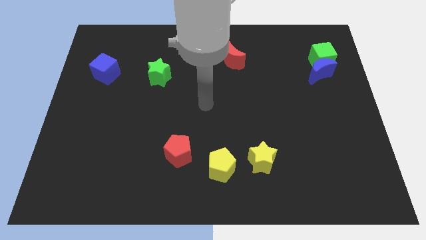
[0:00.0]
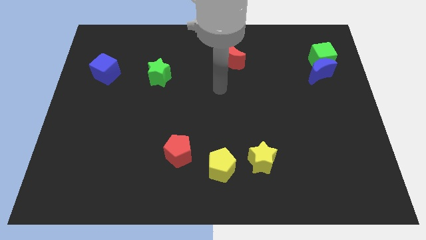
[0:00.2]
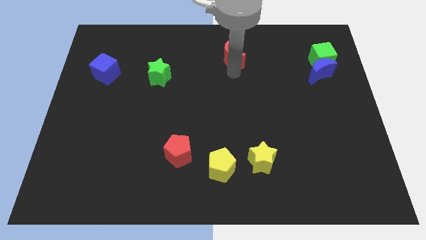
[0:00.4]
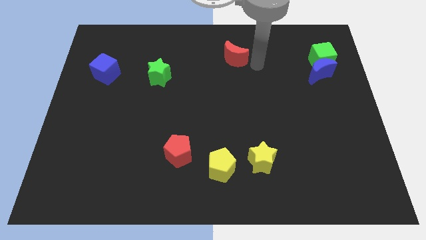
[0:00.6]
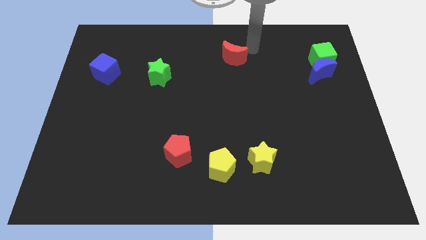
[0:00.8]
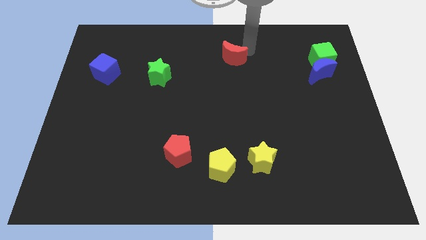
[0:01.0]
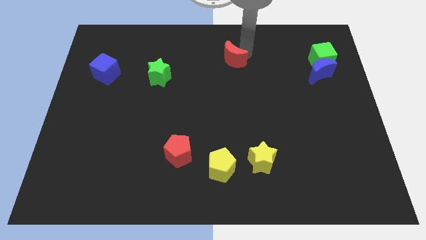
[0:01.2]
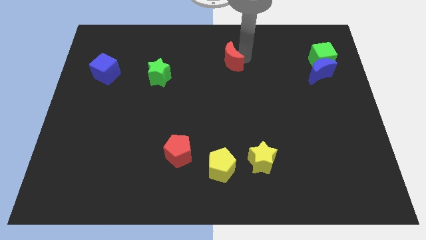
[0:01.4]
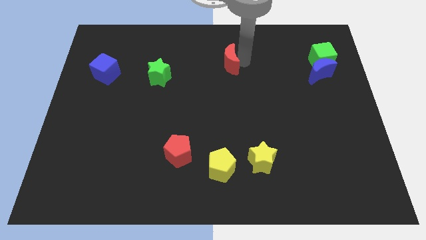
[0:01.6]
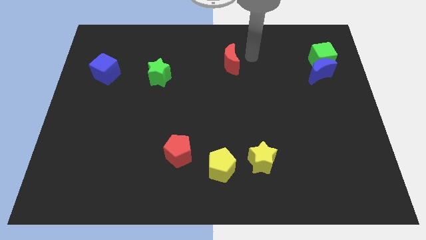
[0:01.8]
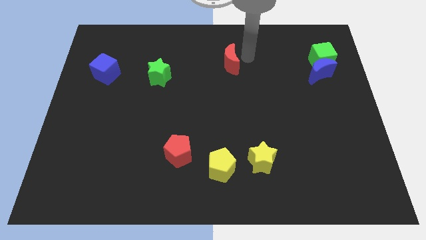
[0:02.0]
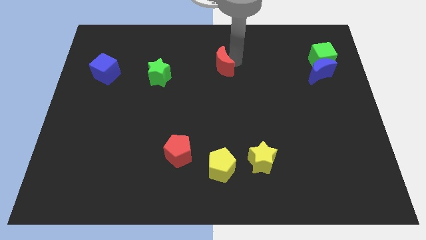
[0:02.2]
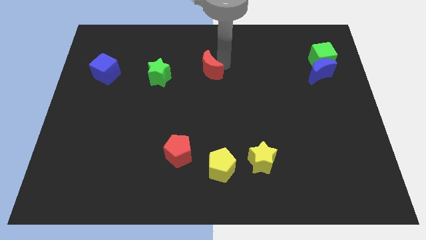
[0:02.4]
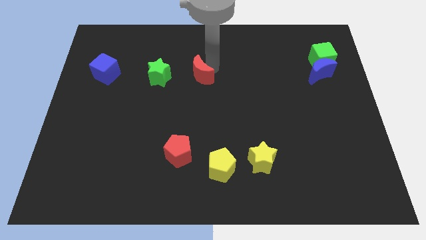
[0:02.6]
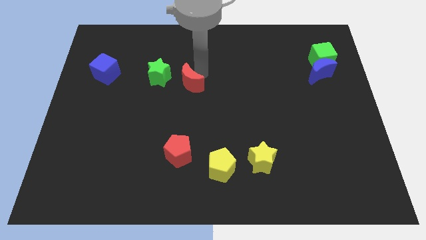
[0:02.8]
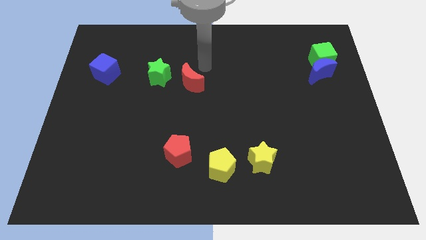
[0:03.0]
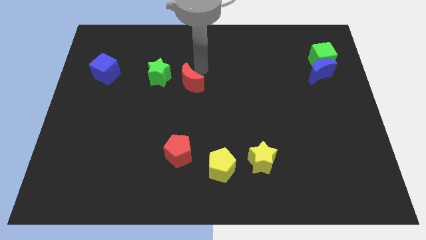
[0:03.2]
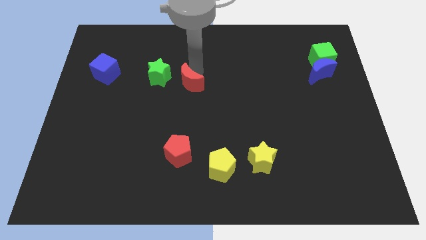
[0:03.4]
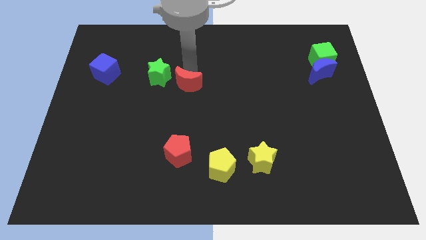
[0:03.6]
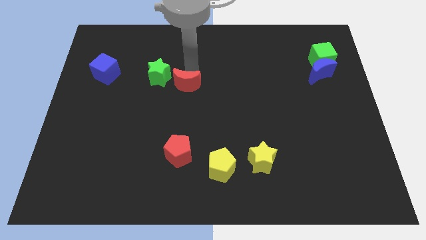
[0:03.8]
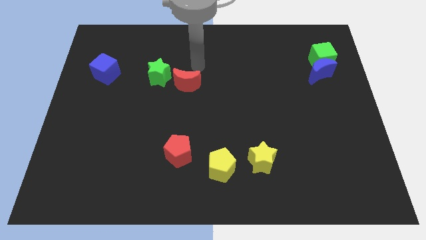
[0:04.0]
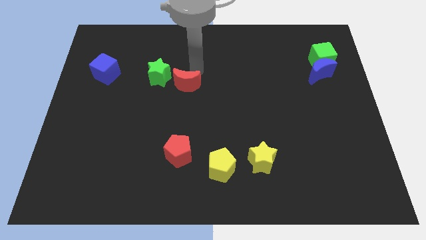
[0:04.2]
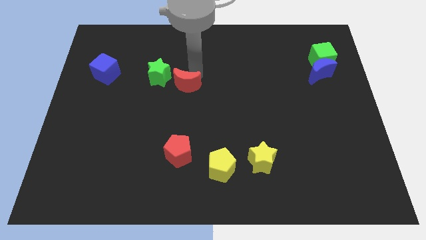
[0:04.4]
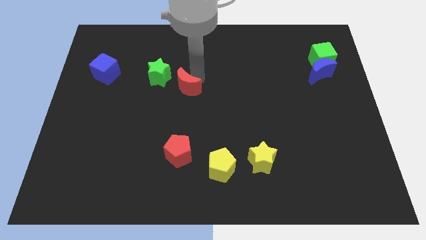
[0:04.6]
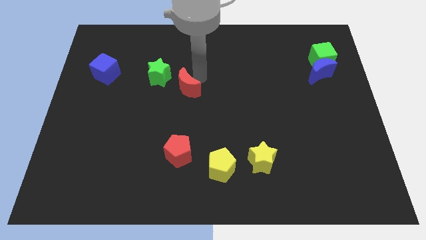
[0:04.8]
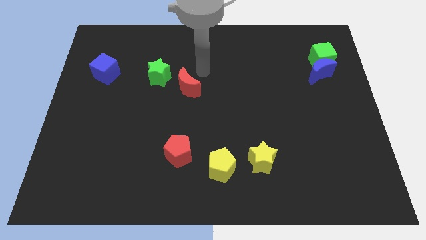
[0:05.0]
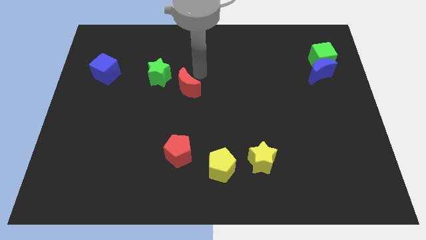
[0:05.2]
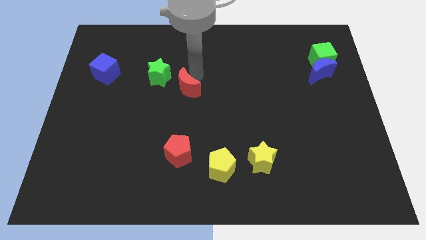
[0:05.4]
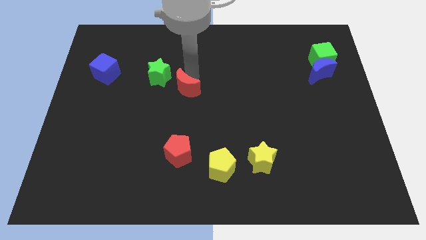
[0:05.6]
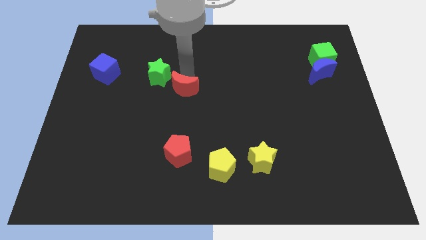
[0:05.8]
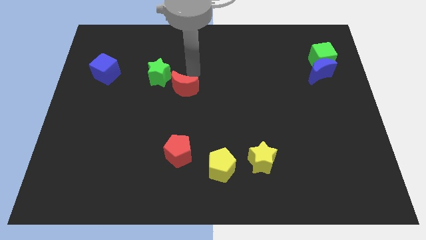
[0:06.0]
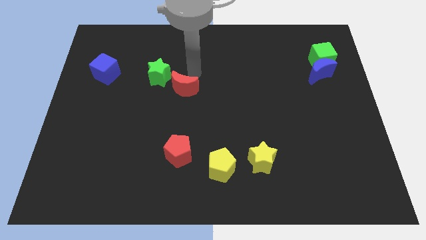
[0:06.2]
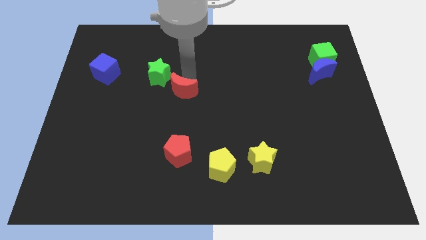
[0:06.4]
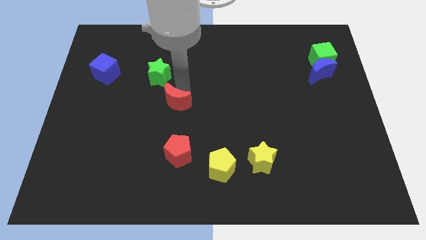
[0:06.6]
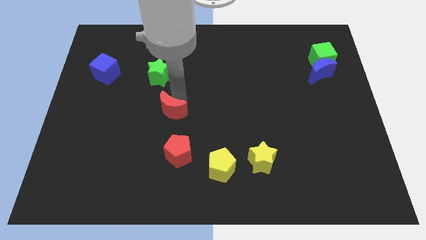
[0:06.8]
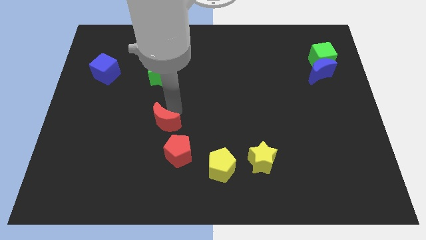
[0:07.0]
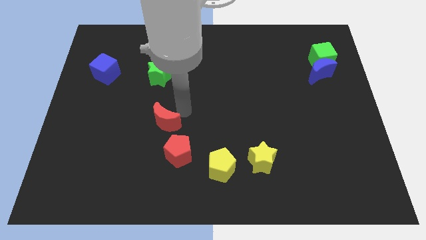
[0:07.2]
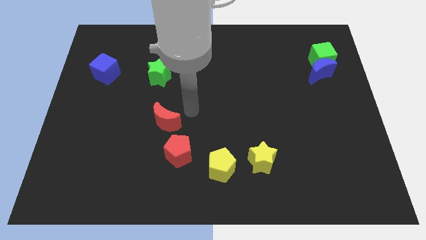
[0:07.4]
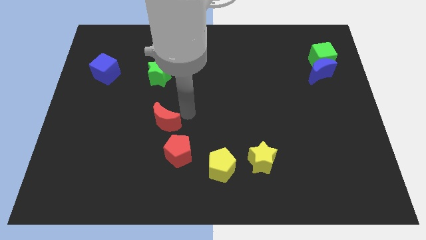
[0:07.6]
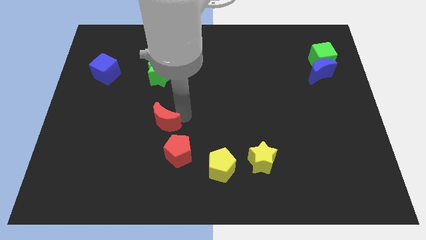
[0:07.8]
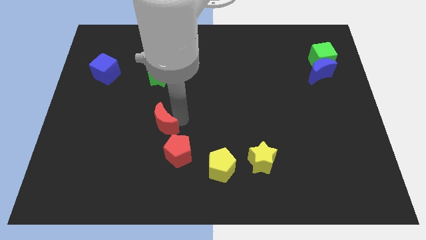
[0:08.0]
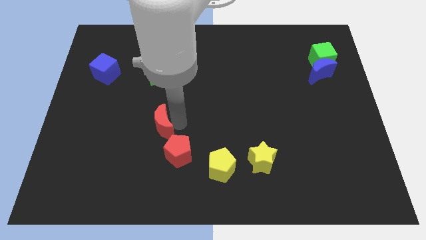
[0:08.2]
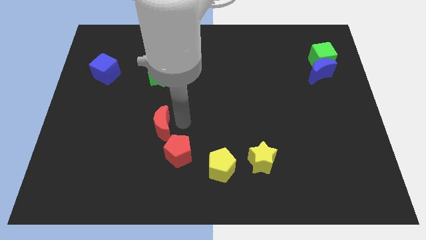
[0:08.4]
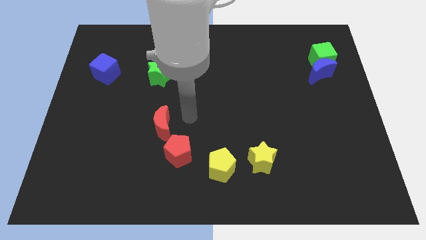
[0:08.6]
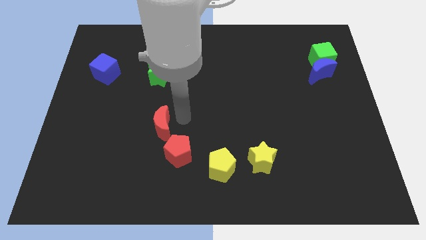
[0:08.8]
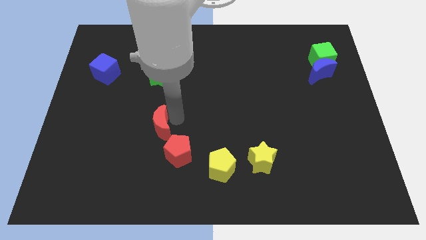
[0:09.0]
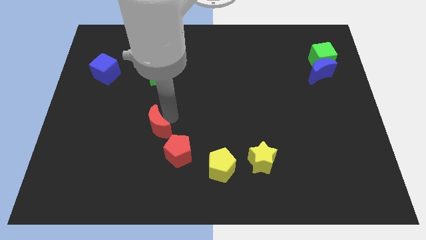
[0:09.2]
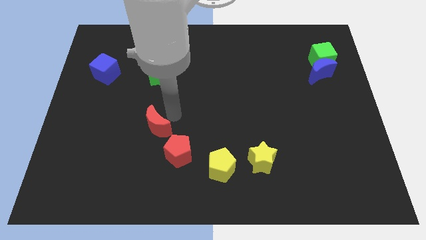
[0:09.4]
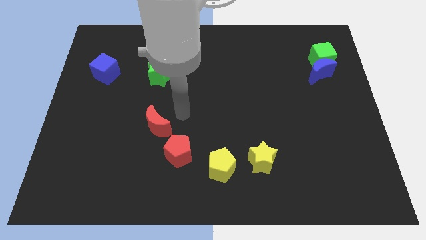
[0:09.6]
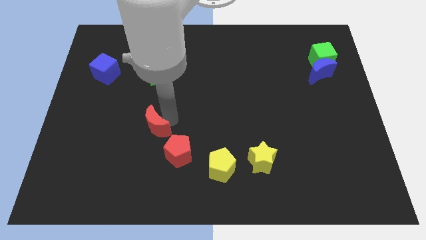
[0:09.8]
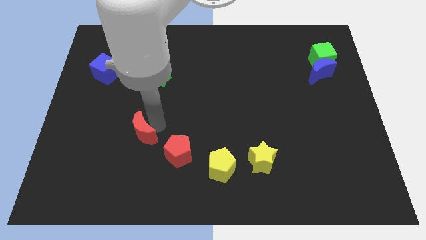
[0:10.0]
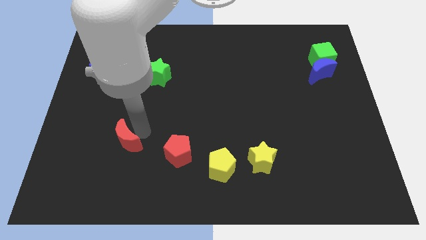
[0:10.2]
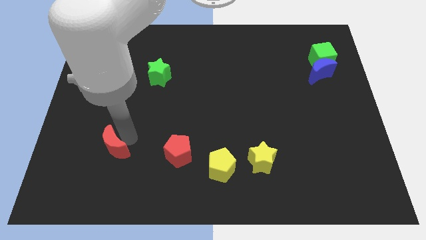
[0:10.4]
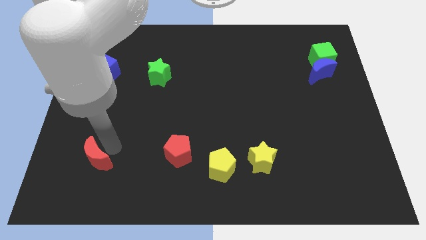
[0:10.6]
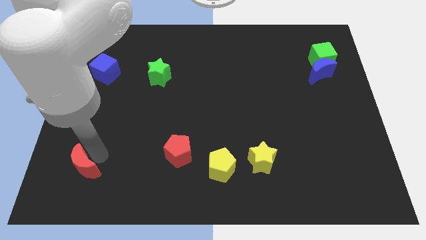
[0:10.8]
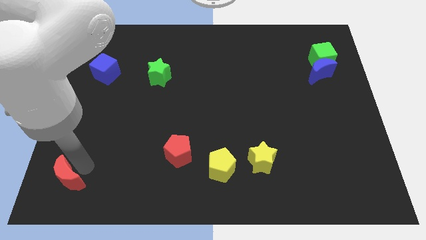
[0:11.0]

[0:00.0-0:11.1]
push the red moon to the bottom left
